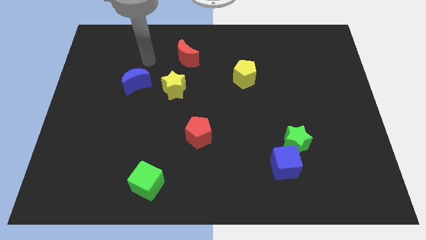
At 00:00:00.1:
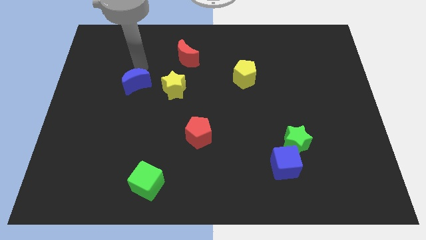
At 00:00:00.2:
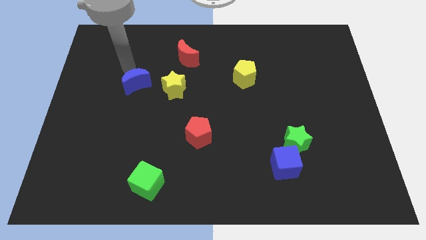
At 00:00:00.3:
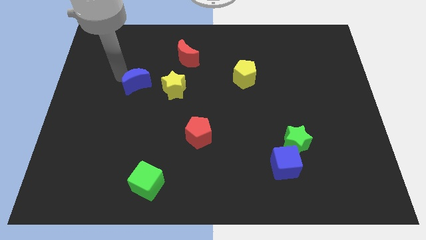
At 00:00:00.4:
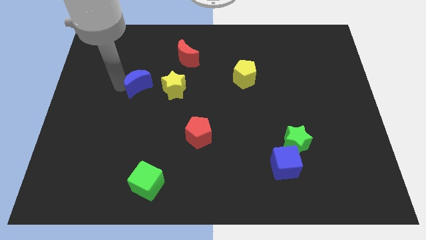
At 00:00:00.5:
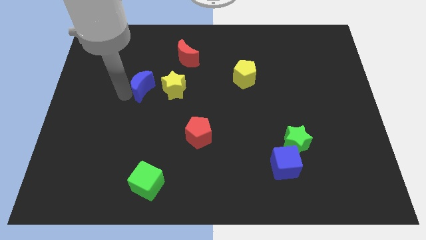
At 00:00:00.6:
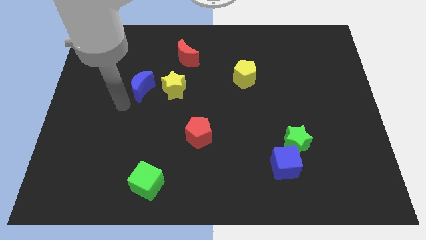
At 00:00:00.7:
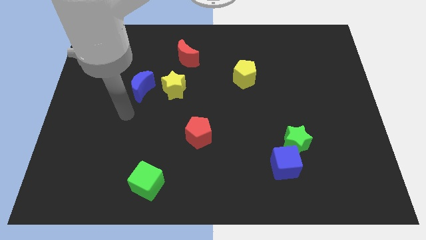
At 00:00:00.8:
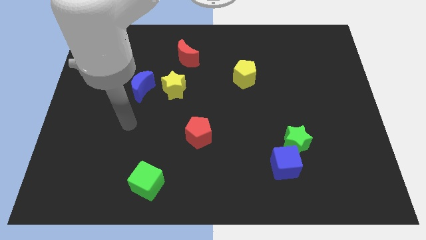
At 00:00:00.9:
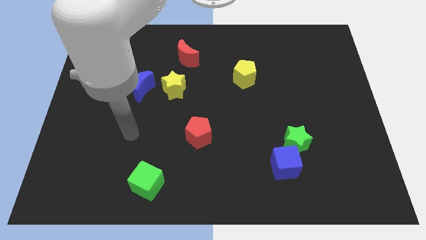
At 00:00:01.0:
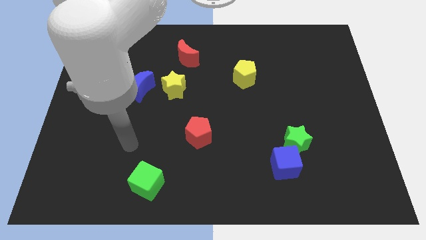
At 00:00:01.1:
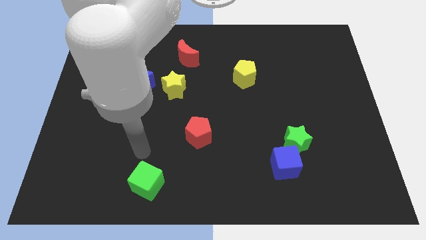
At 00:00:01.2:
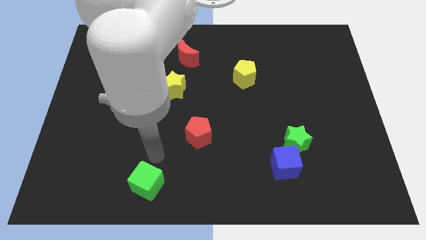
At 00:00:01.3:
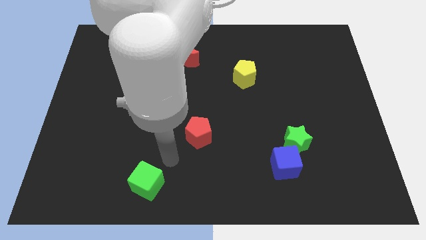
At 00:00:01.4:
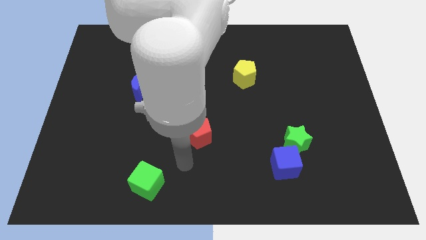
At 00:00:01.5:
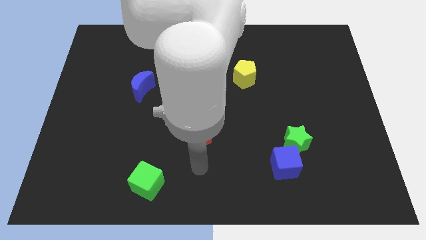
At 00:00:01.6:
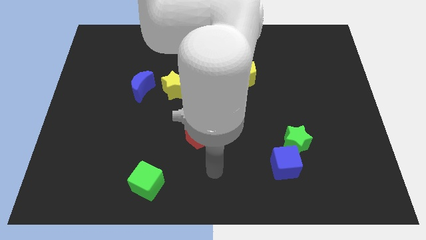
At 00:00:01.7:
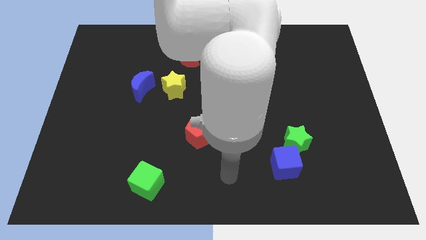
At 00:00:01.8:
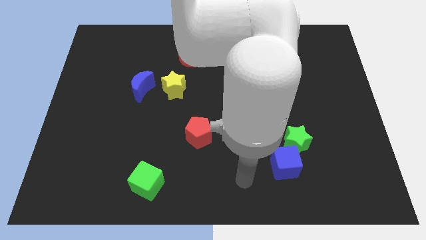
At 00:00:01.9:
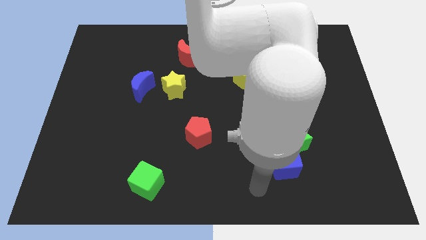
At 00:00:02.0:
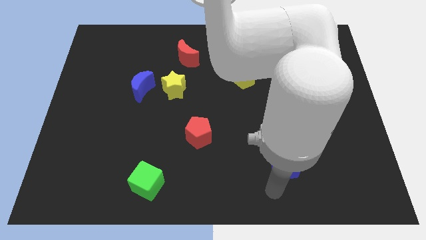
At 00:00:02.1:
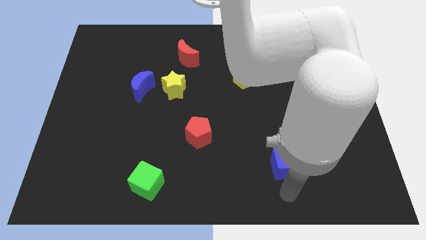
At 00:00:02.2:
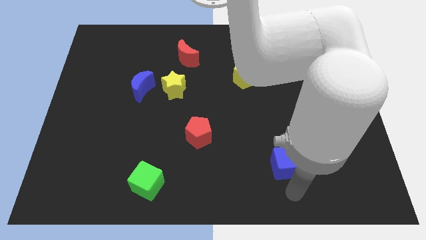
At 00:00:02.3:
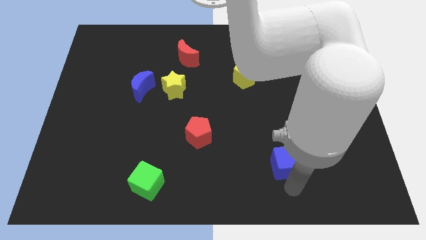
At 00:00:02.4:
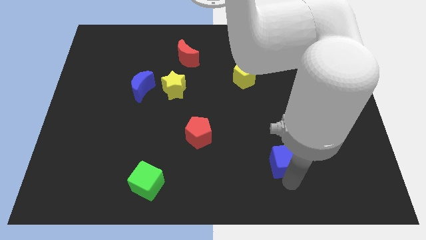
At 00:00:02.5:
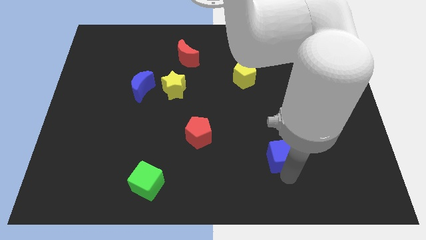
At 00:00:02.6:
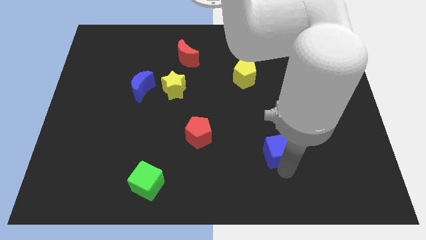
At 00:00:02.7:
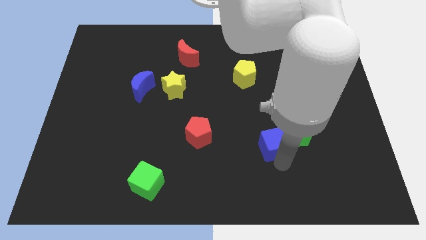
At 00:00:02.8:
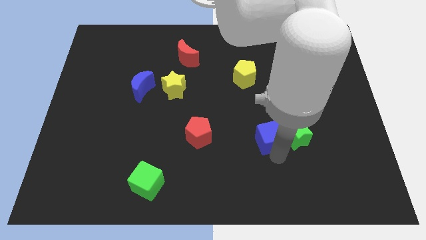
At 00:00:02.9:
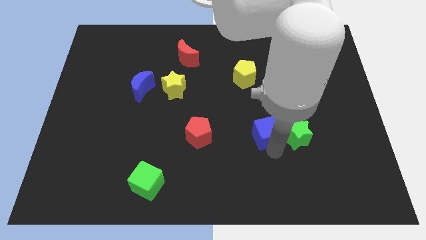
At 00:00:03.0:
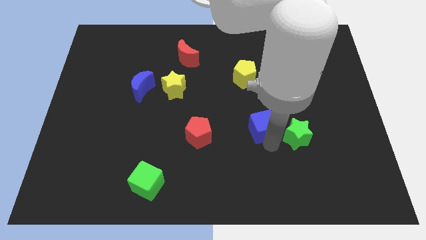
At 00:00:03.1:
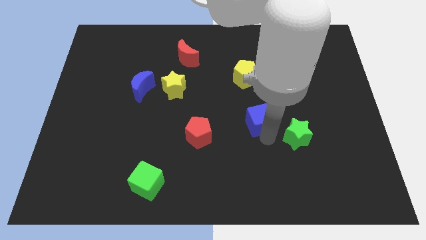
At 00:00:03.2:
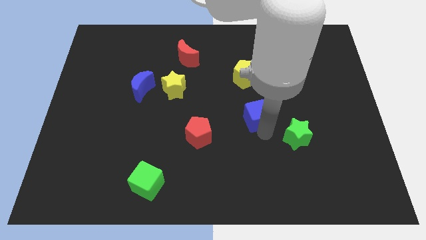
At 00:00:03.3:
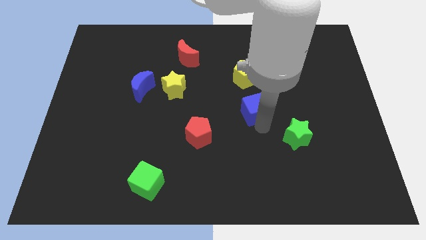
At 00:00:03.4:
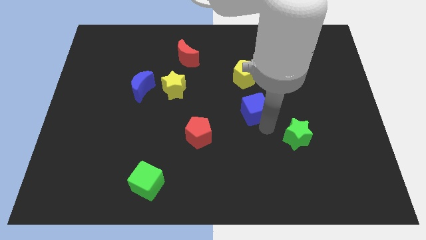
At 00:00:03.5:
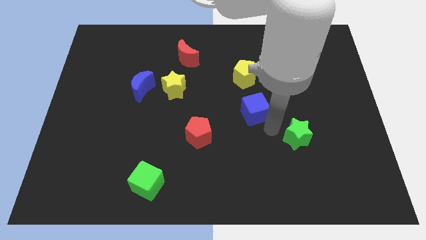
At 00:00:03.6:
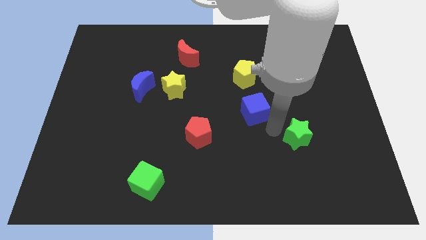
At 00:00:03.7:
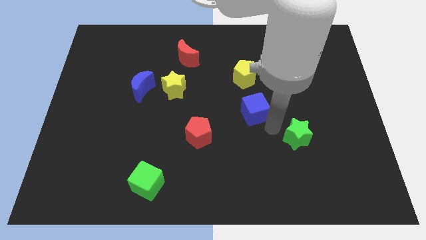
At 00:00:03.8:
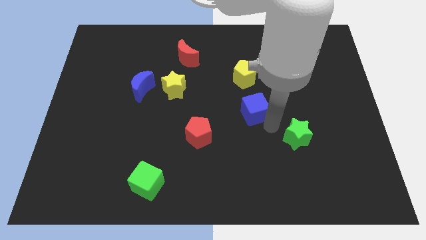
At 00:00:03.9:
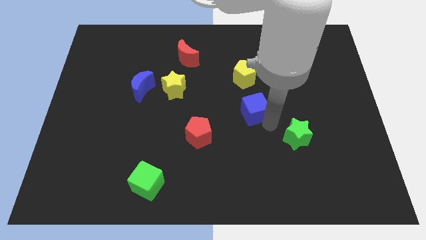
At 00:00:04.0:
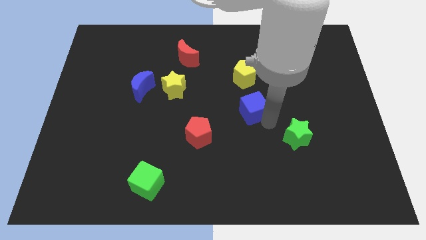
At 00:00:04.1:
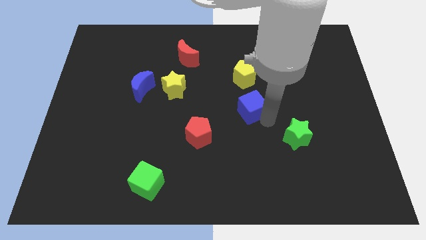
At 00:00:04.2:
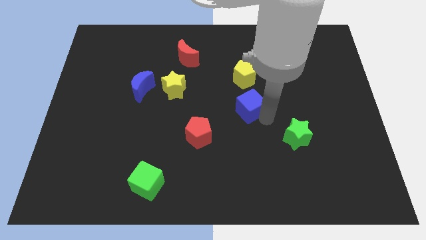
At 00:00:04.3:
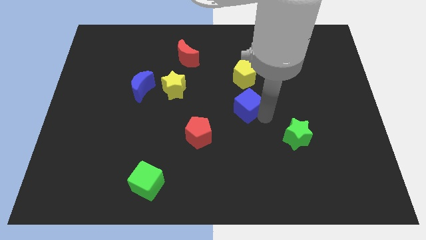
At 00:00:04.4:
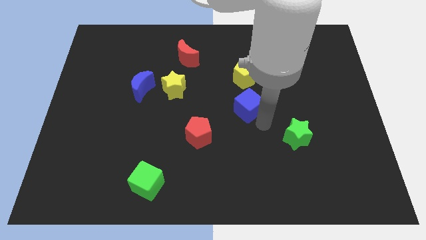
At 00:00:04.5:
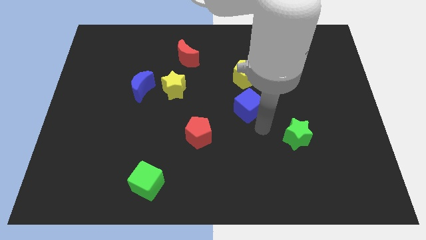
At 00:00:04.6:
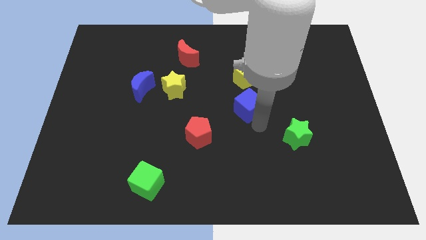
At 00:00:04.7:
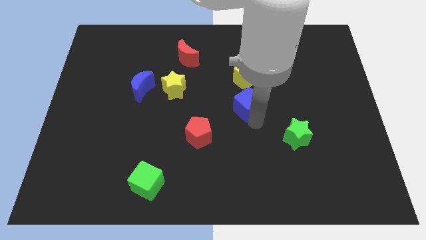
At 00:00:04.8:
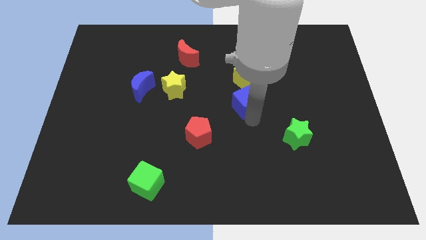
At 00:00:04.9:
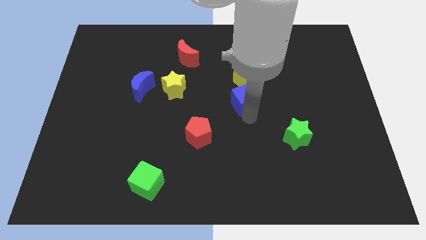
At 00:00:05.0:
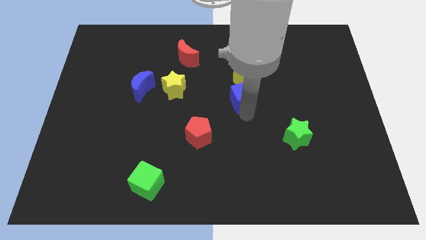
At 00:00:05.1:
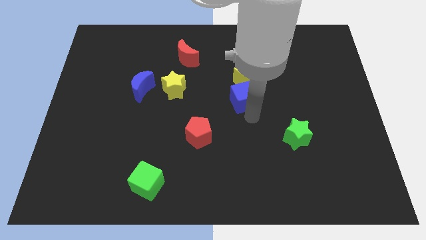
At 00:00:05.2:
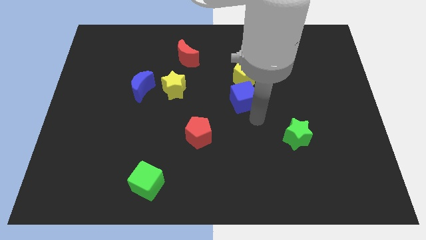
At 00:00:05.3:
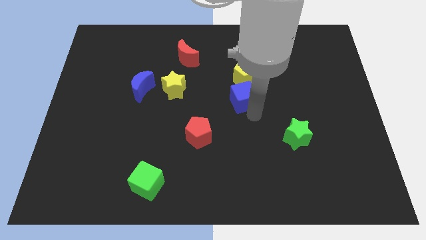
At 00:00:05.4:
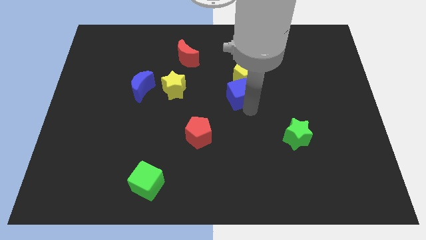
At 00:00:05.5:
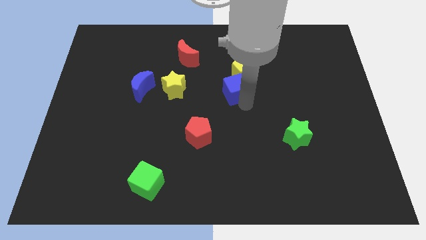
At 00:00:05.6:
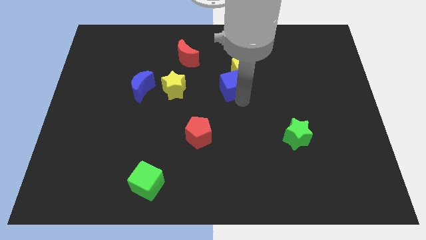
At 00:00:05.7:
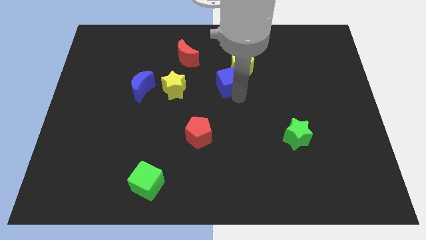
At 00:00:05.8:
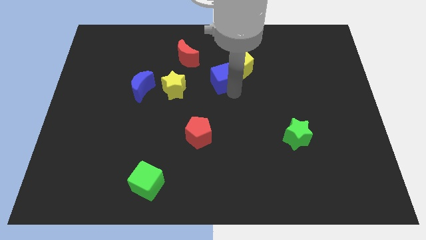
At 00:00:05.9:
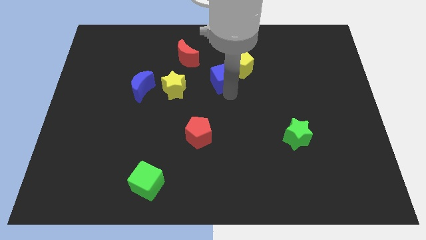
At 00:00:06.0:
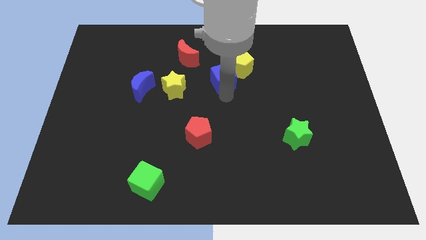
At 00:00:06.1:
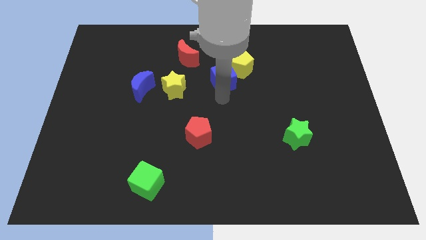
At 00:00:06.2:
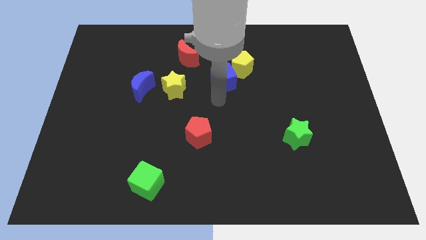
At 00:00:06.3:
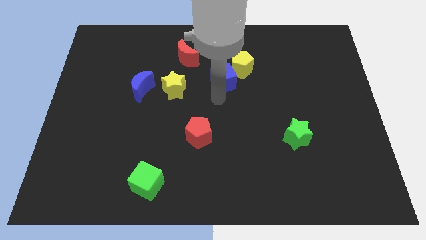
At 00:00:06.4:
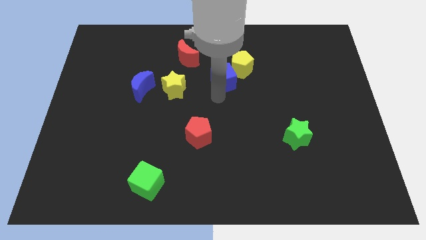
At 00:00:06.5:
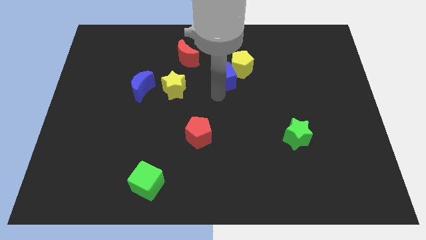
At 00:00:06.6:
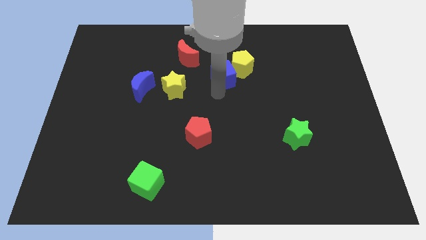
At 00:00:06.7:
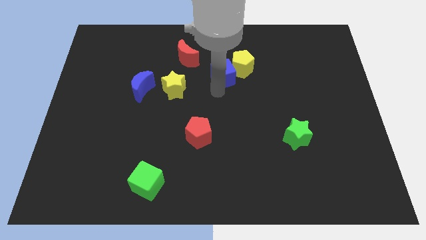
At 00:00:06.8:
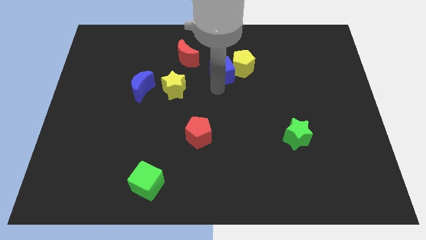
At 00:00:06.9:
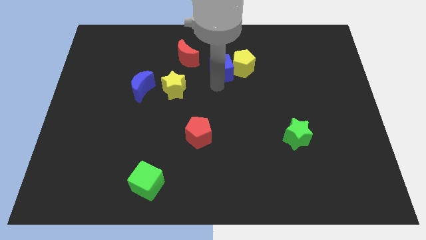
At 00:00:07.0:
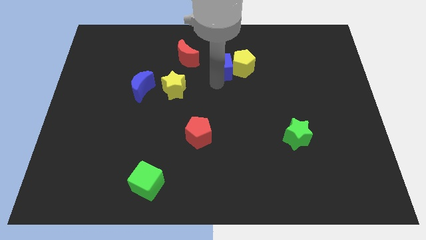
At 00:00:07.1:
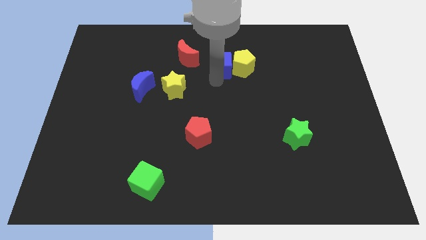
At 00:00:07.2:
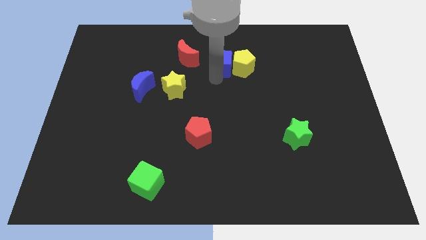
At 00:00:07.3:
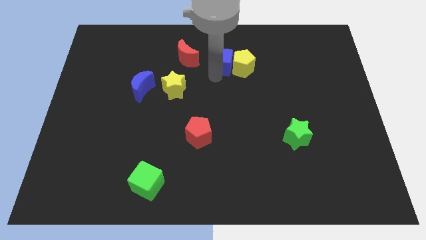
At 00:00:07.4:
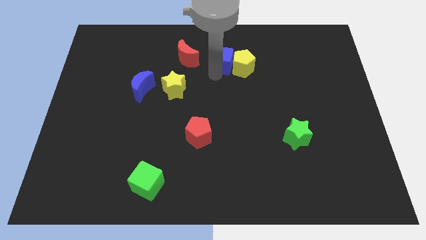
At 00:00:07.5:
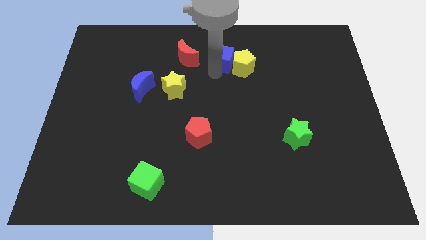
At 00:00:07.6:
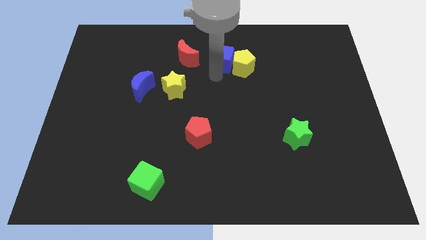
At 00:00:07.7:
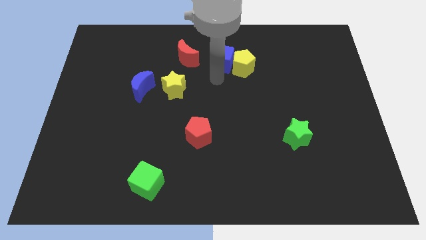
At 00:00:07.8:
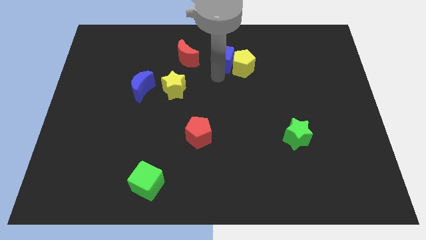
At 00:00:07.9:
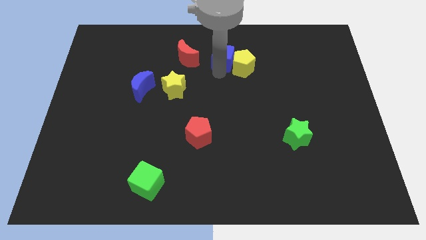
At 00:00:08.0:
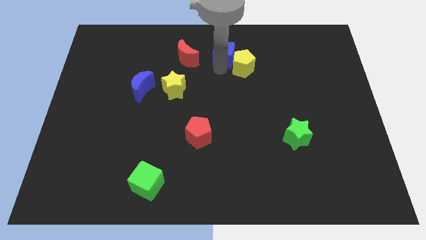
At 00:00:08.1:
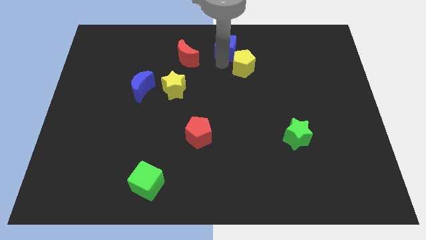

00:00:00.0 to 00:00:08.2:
put the blue cube to the top
